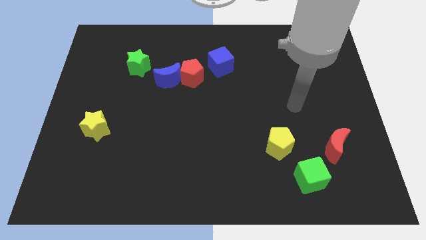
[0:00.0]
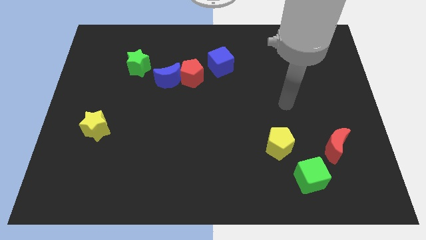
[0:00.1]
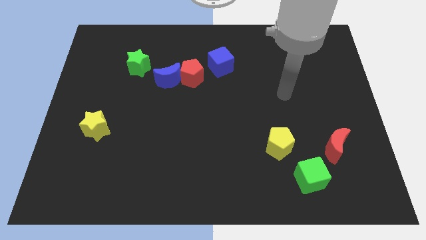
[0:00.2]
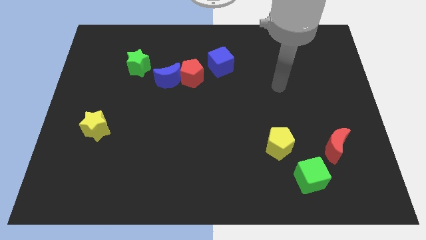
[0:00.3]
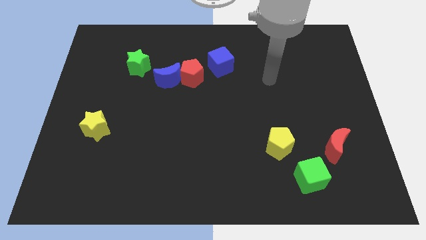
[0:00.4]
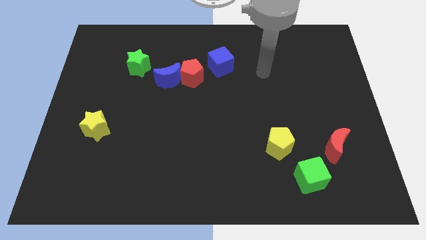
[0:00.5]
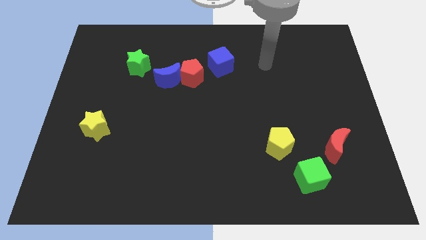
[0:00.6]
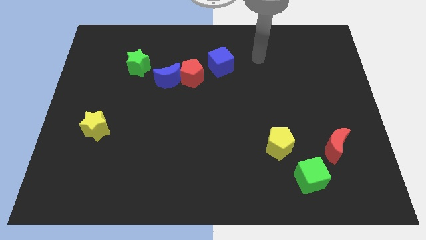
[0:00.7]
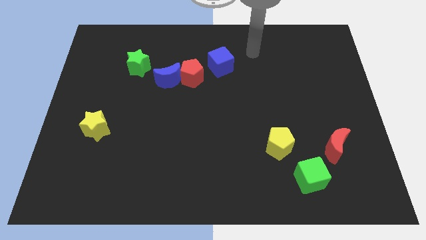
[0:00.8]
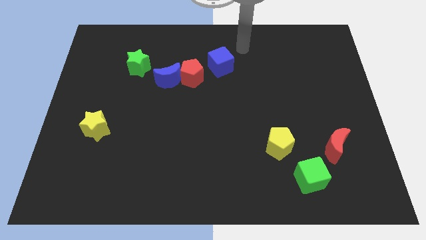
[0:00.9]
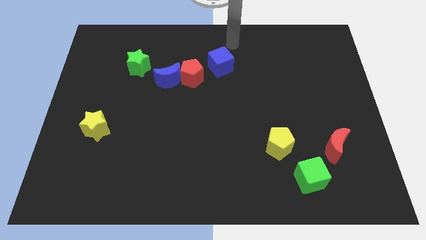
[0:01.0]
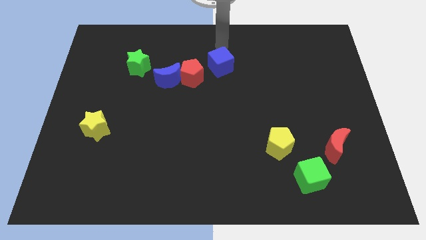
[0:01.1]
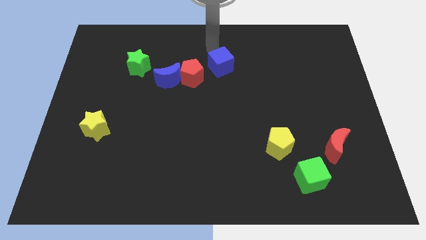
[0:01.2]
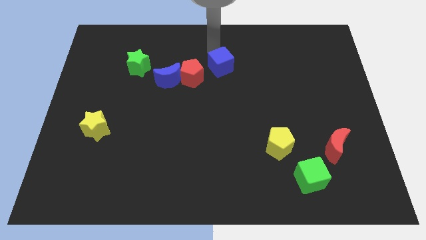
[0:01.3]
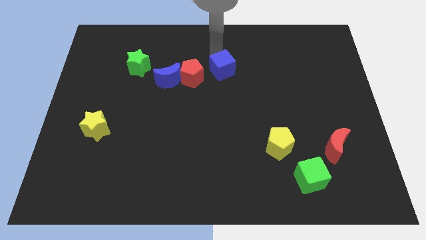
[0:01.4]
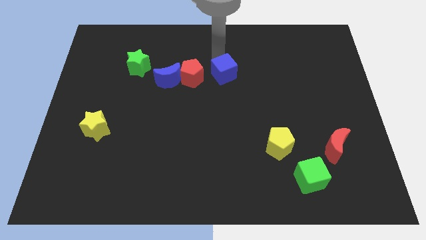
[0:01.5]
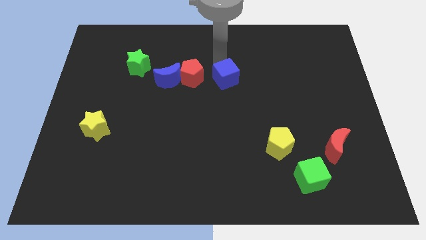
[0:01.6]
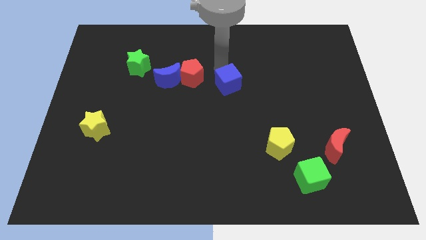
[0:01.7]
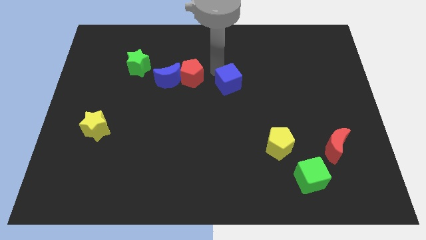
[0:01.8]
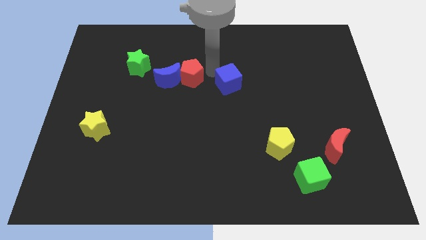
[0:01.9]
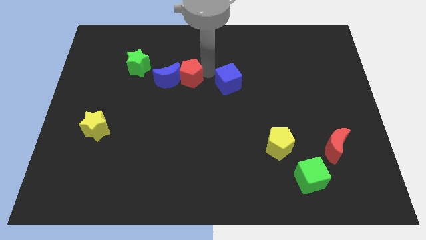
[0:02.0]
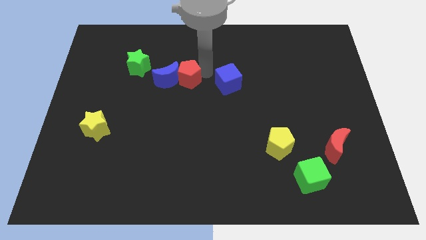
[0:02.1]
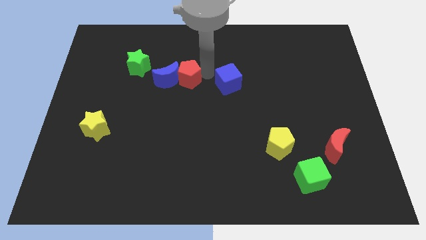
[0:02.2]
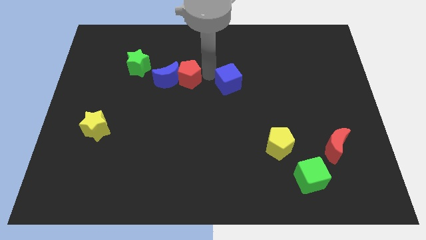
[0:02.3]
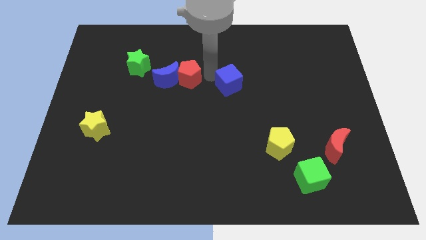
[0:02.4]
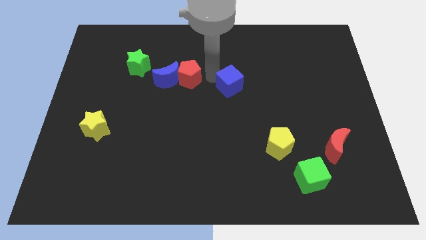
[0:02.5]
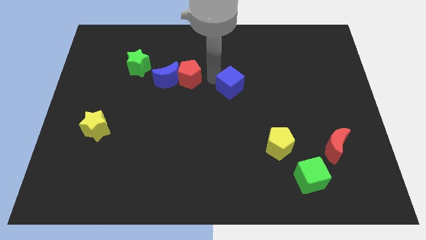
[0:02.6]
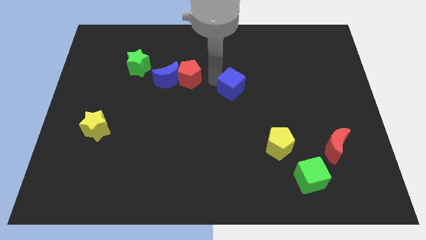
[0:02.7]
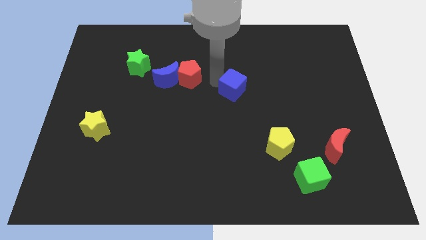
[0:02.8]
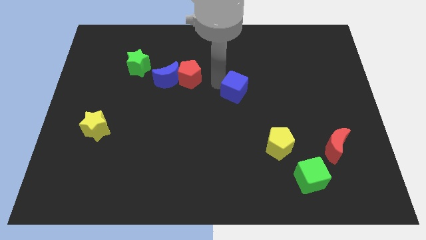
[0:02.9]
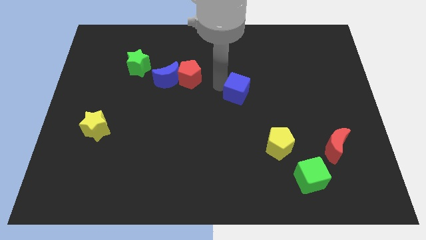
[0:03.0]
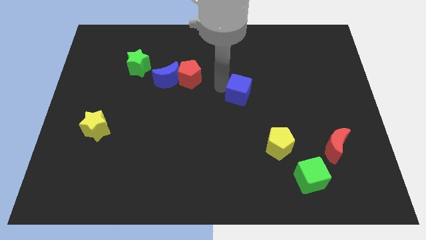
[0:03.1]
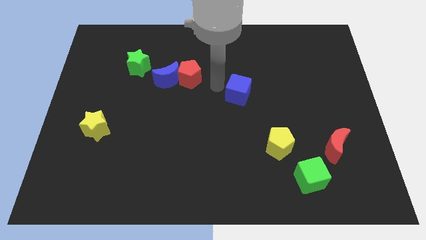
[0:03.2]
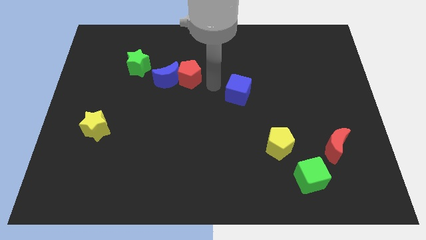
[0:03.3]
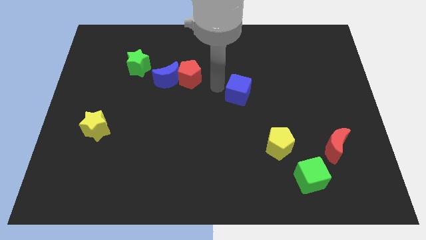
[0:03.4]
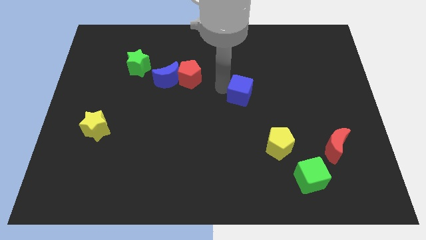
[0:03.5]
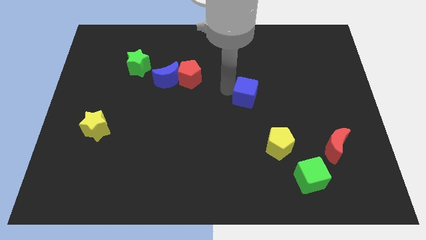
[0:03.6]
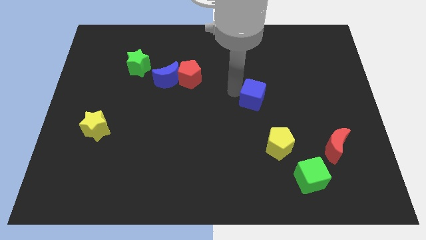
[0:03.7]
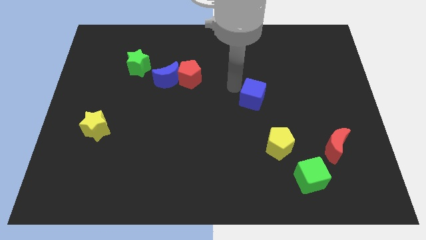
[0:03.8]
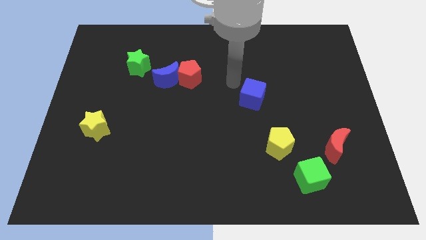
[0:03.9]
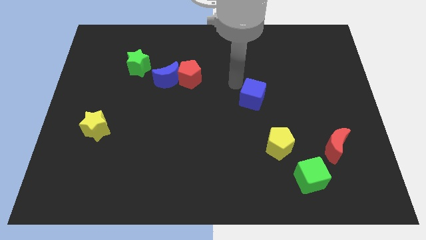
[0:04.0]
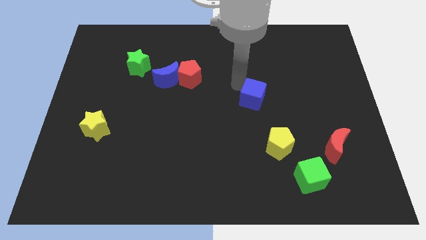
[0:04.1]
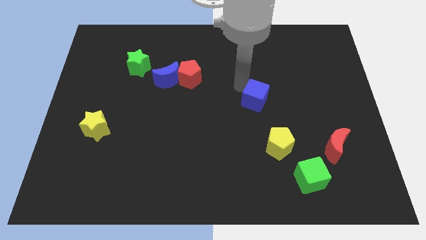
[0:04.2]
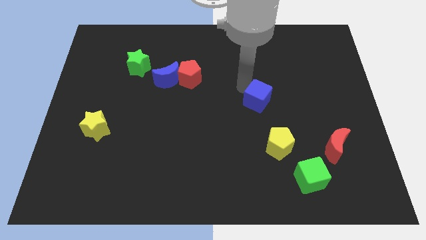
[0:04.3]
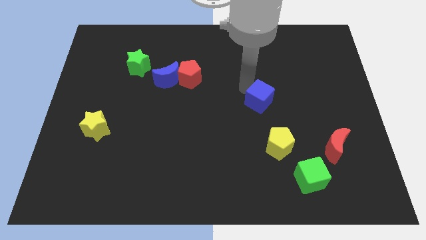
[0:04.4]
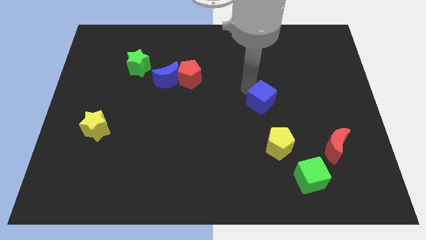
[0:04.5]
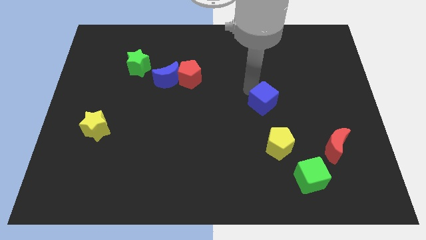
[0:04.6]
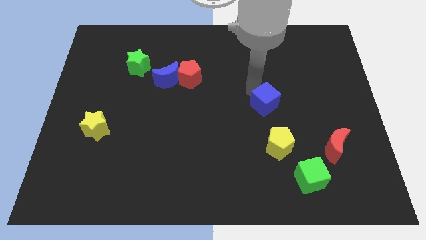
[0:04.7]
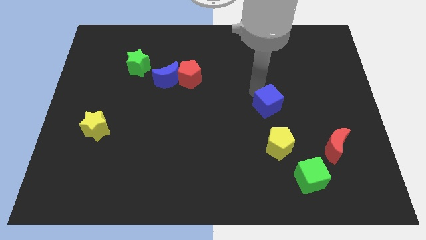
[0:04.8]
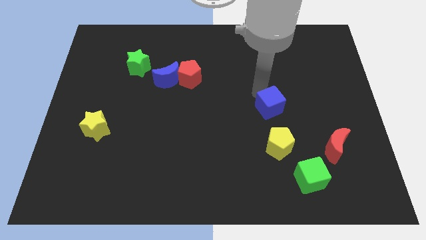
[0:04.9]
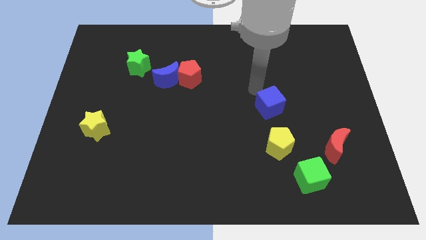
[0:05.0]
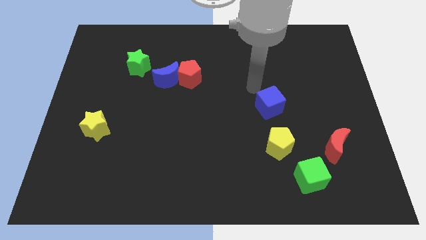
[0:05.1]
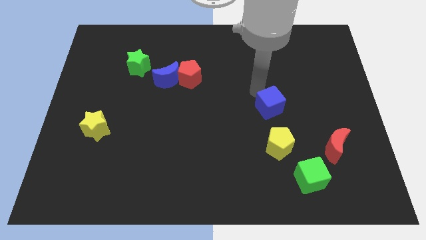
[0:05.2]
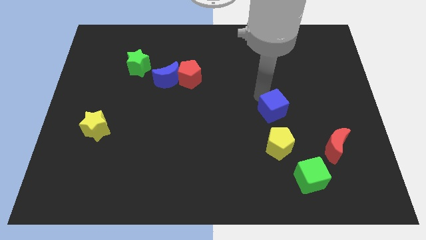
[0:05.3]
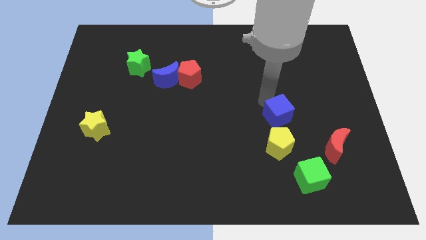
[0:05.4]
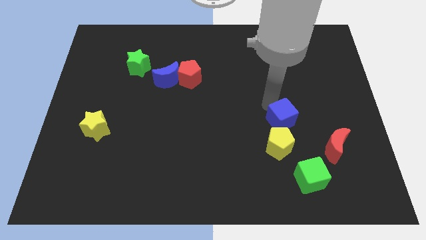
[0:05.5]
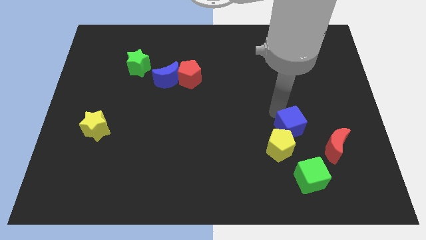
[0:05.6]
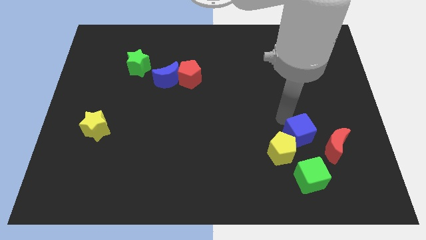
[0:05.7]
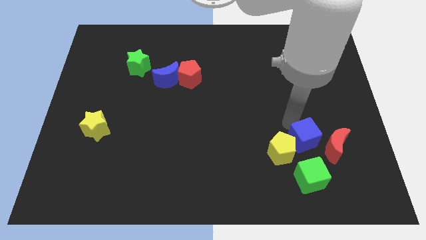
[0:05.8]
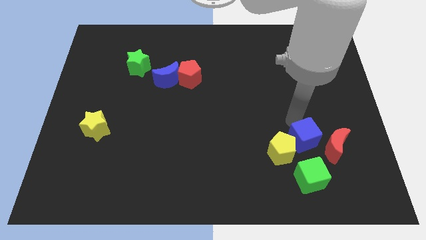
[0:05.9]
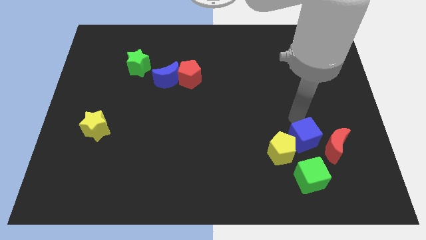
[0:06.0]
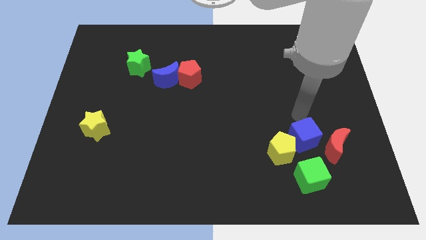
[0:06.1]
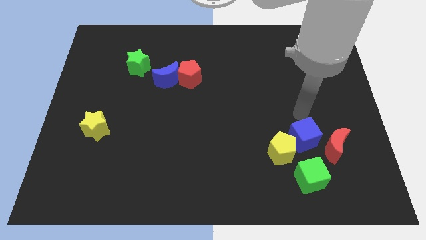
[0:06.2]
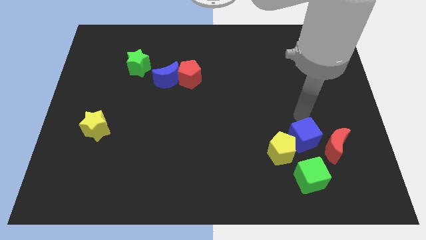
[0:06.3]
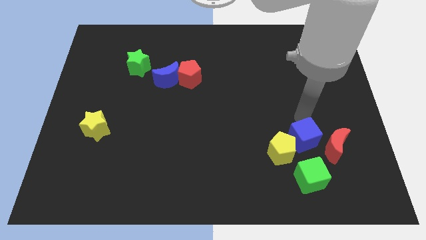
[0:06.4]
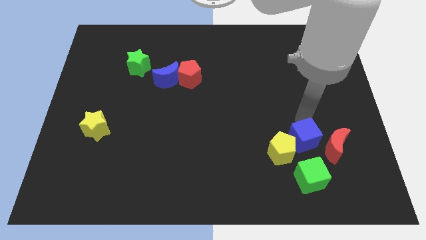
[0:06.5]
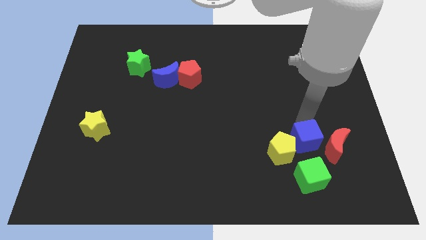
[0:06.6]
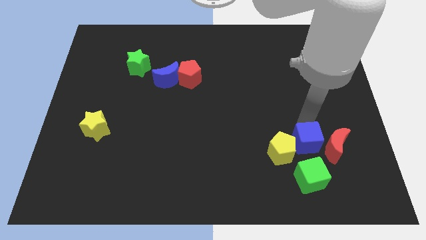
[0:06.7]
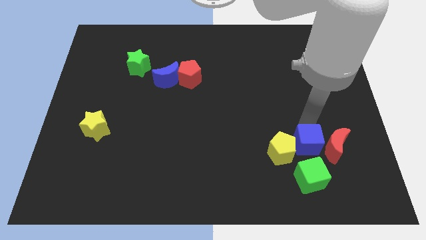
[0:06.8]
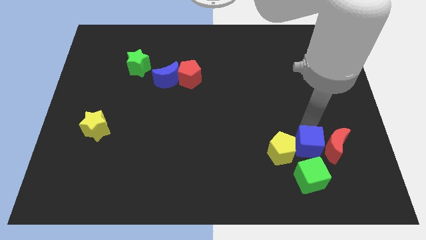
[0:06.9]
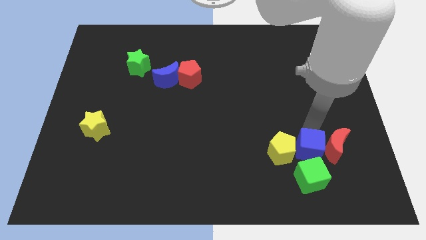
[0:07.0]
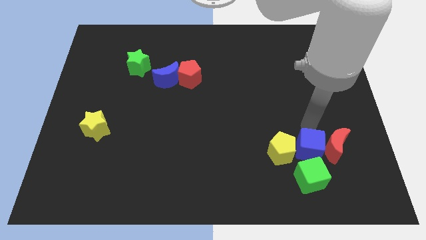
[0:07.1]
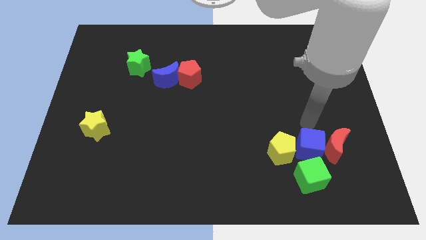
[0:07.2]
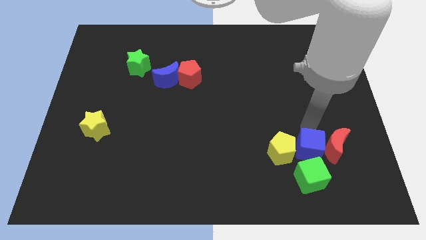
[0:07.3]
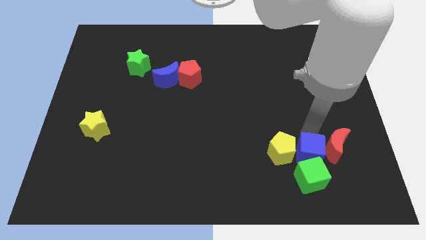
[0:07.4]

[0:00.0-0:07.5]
put the blue cube close to the green cube

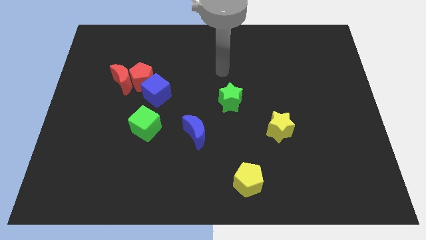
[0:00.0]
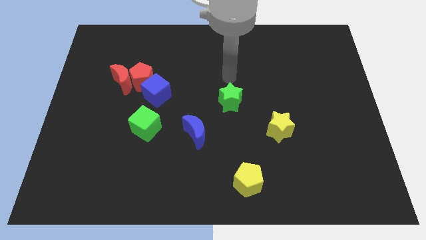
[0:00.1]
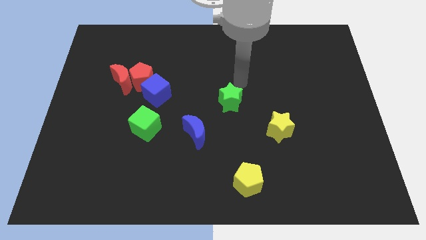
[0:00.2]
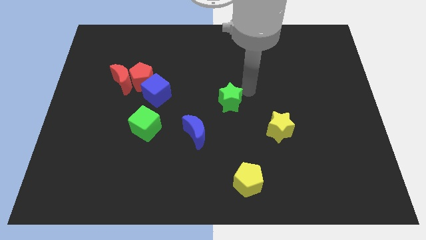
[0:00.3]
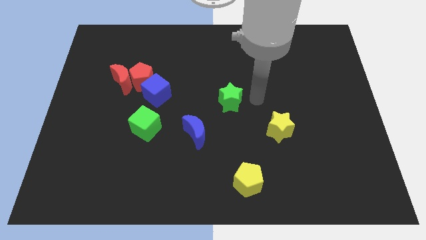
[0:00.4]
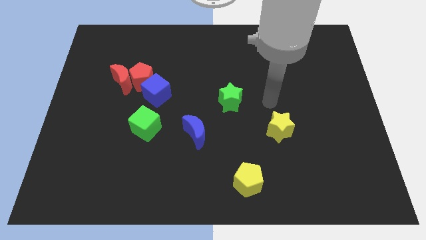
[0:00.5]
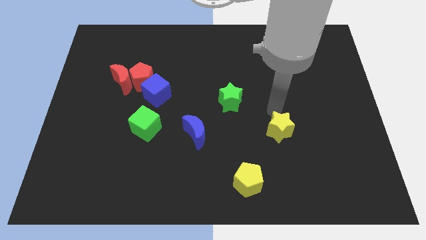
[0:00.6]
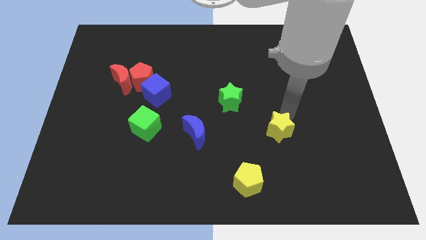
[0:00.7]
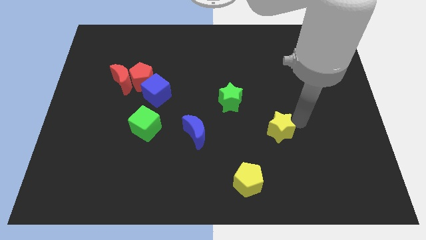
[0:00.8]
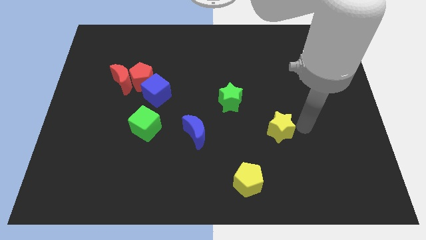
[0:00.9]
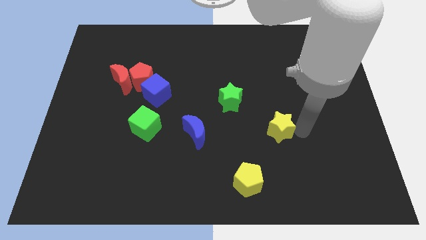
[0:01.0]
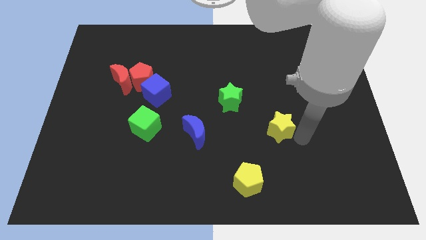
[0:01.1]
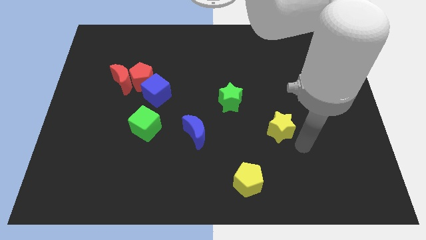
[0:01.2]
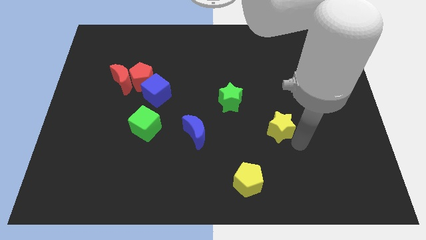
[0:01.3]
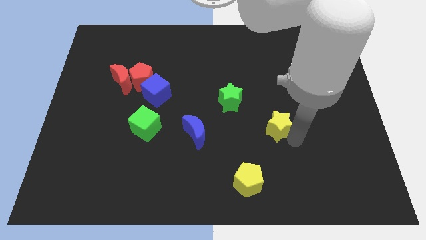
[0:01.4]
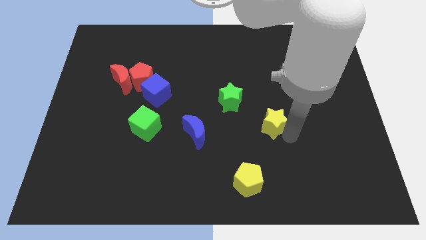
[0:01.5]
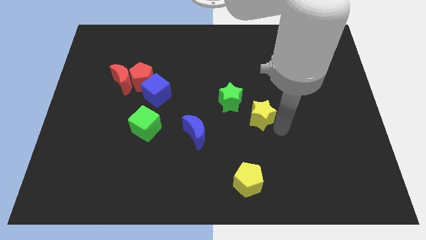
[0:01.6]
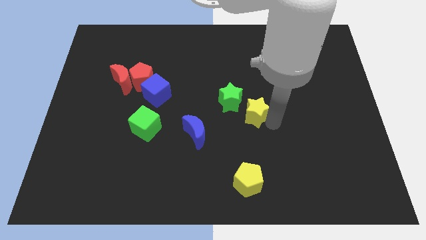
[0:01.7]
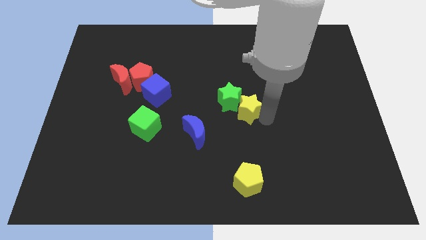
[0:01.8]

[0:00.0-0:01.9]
move the yellow star to the green star
